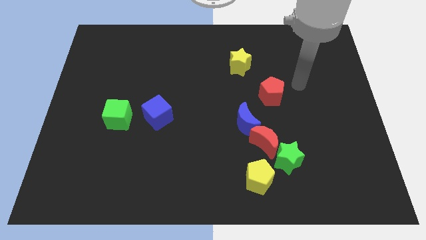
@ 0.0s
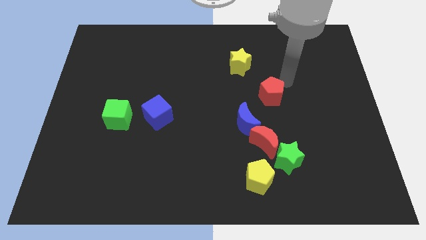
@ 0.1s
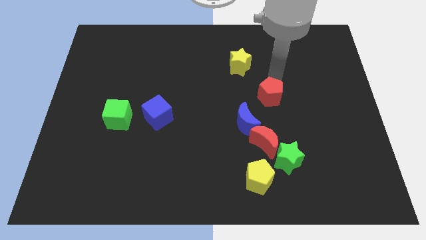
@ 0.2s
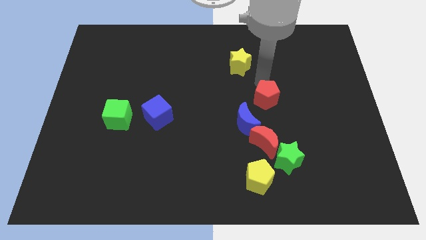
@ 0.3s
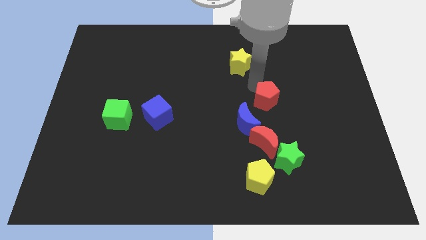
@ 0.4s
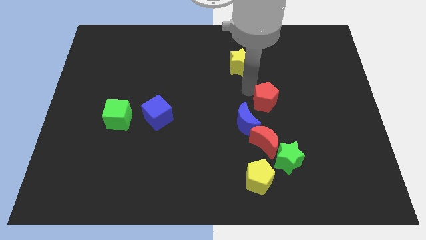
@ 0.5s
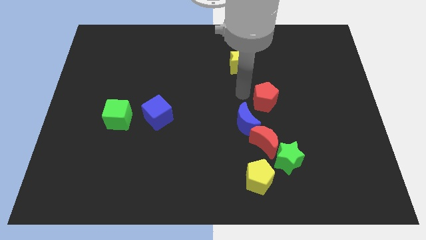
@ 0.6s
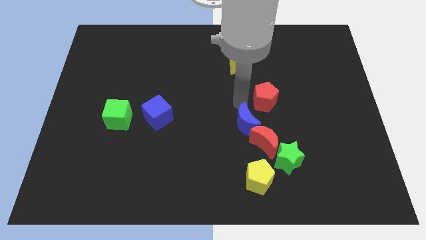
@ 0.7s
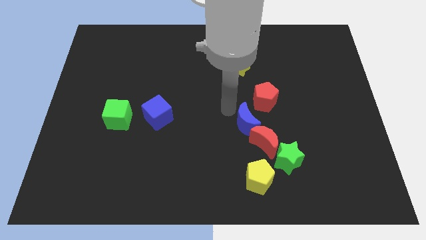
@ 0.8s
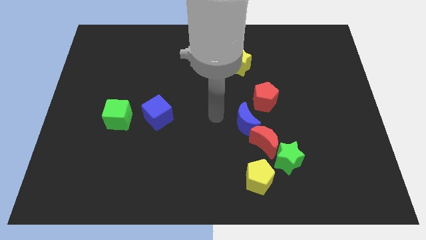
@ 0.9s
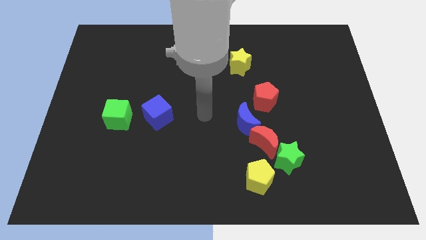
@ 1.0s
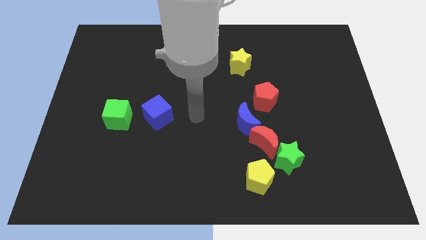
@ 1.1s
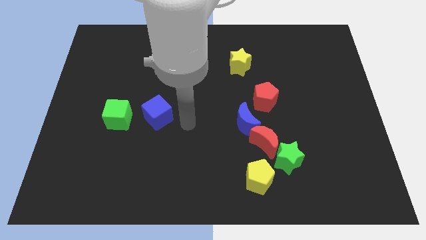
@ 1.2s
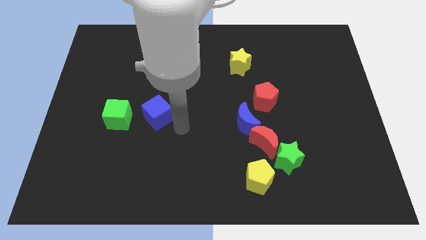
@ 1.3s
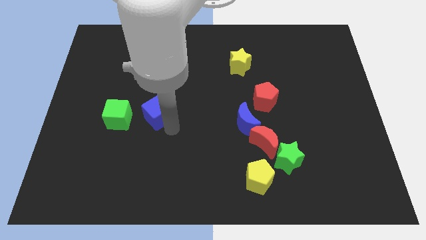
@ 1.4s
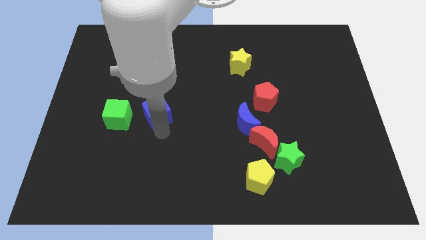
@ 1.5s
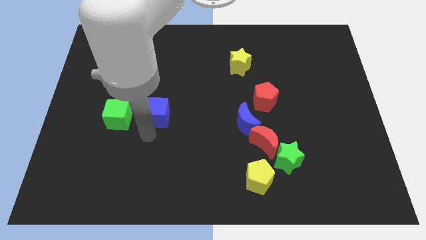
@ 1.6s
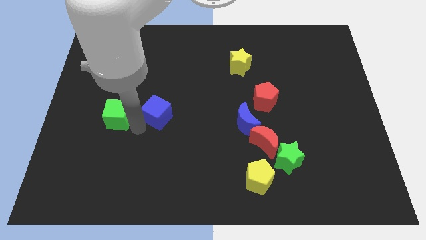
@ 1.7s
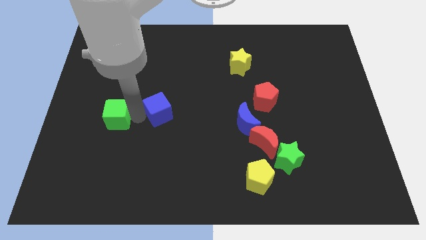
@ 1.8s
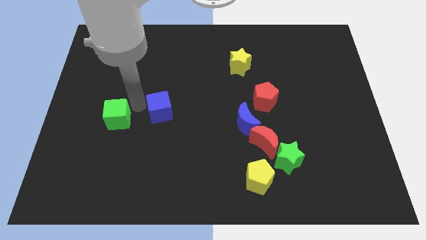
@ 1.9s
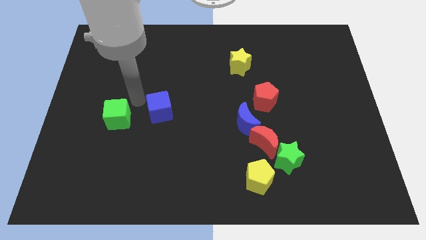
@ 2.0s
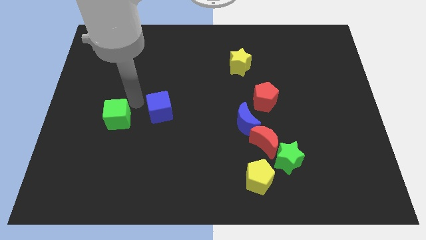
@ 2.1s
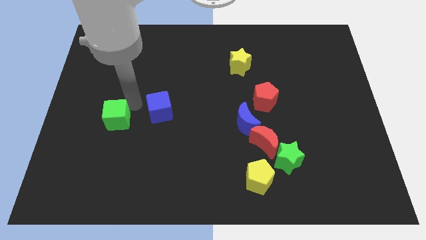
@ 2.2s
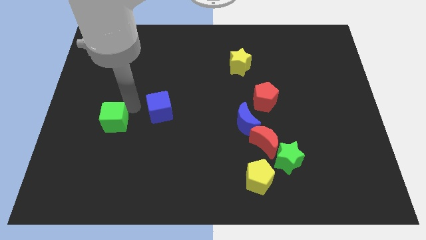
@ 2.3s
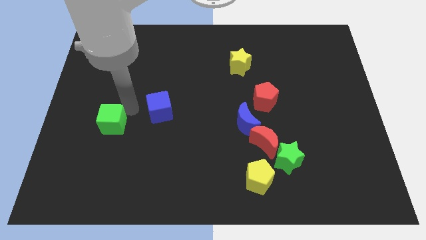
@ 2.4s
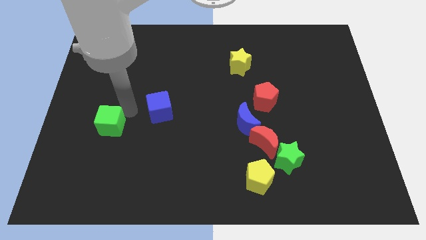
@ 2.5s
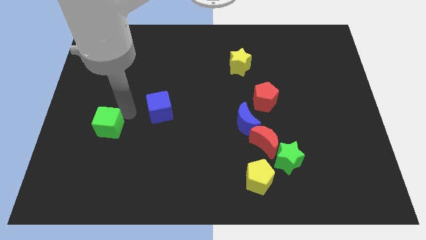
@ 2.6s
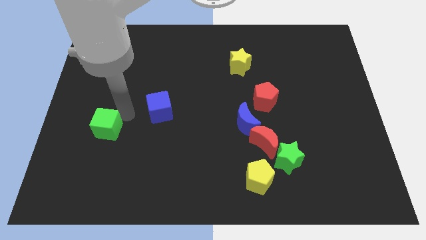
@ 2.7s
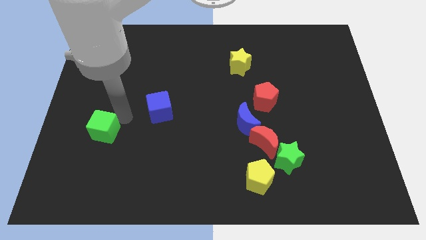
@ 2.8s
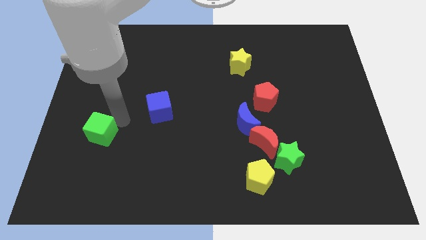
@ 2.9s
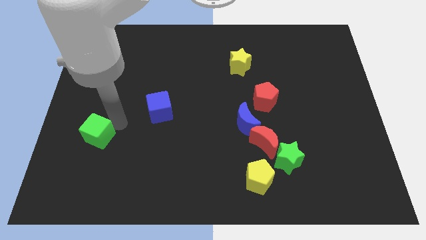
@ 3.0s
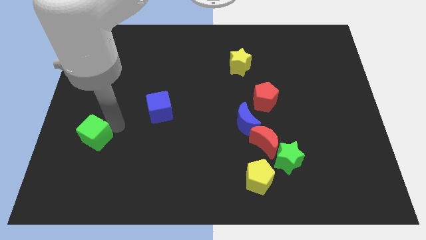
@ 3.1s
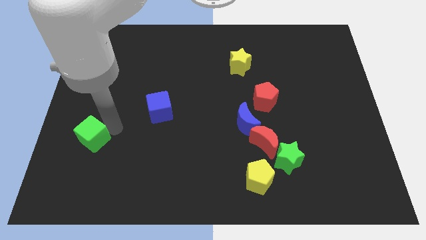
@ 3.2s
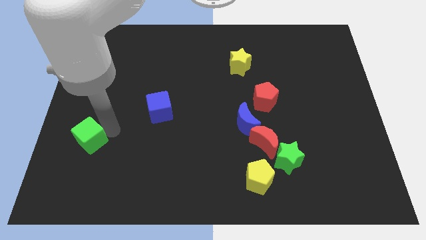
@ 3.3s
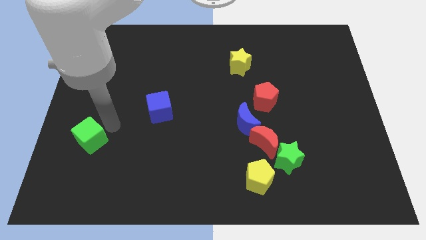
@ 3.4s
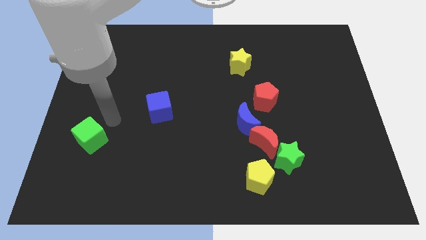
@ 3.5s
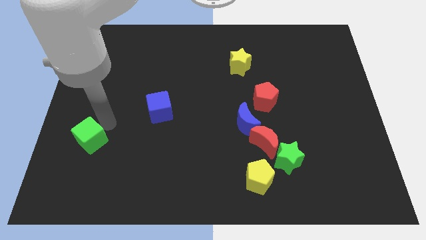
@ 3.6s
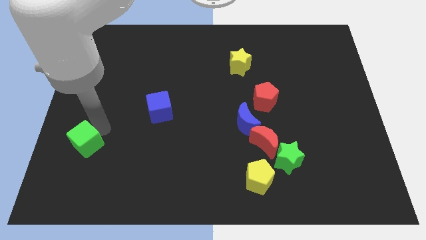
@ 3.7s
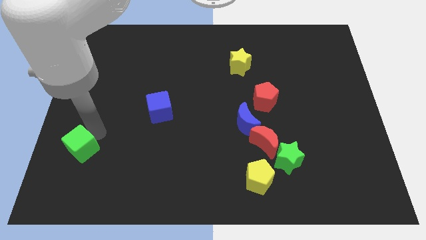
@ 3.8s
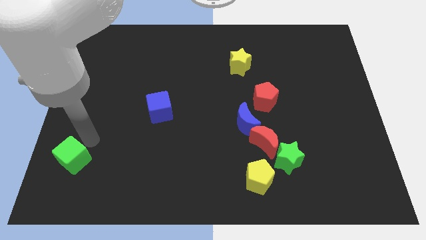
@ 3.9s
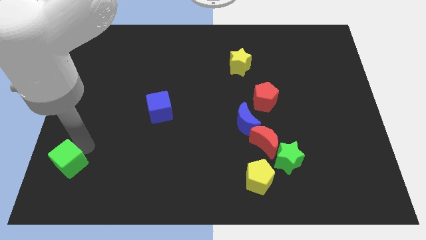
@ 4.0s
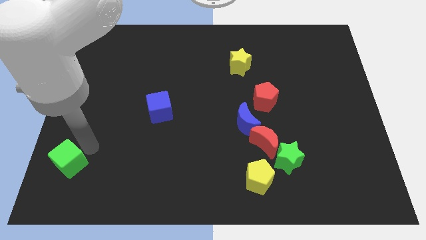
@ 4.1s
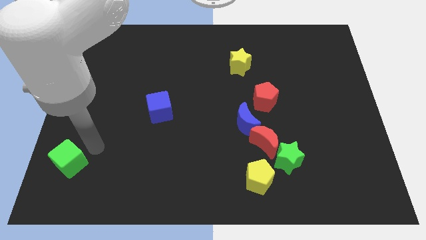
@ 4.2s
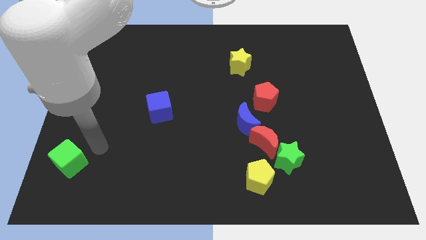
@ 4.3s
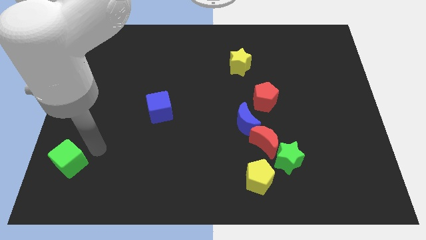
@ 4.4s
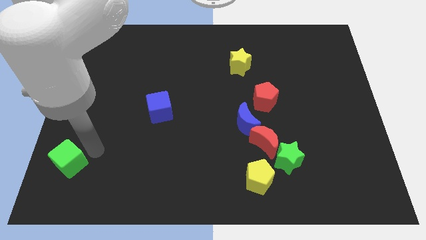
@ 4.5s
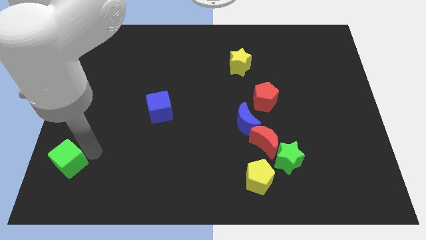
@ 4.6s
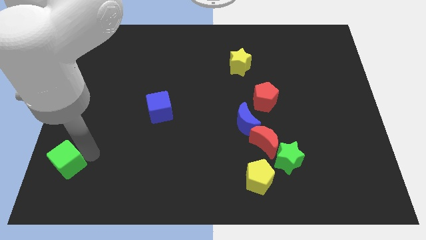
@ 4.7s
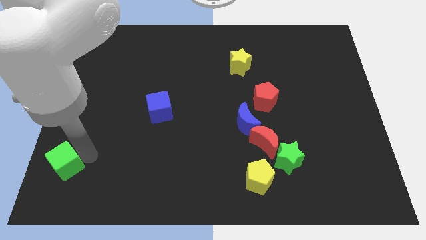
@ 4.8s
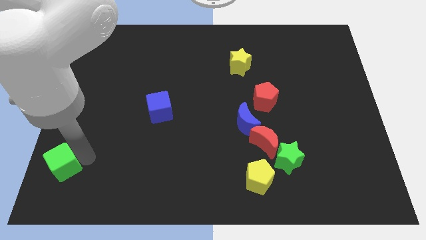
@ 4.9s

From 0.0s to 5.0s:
push the green cube to the lower left corner

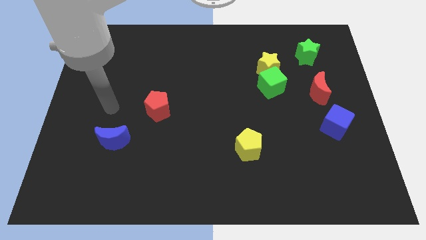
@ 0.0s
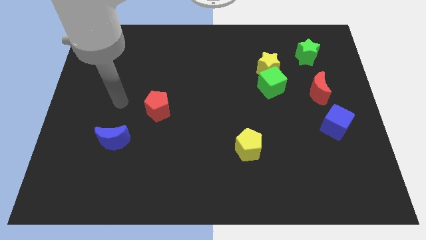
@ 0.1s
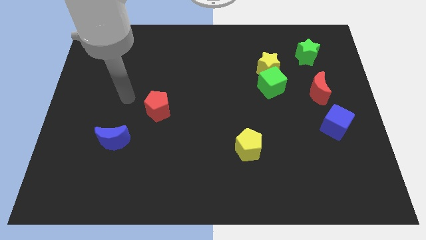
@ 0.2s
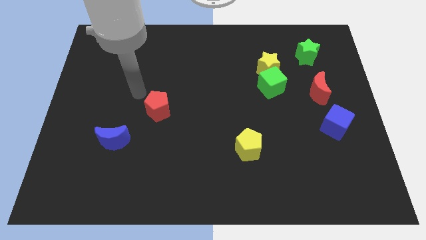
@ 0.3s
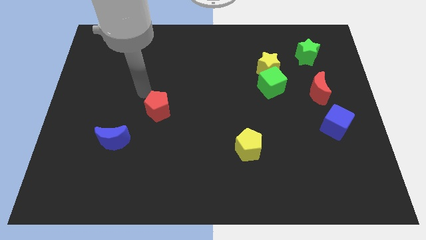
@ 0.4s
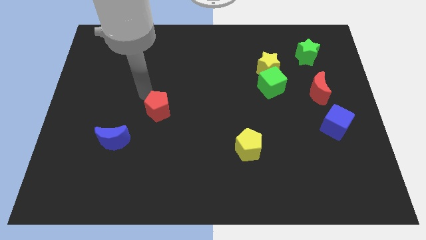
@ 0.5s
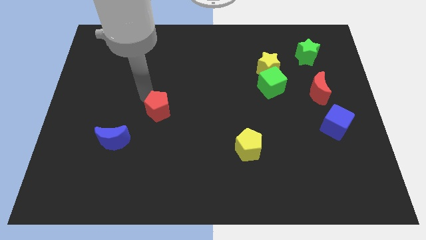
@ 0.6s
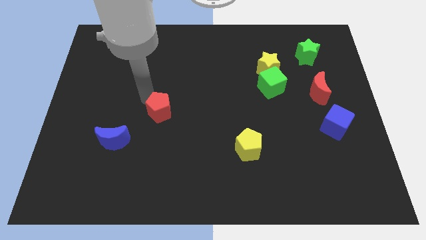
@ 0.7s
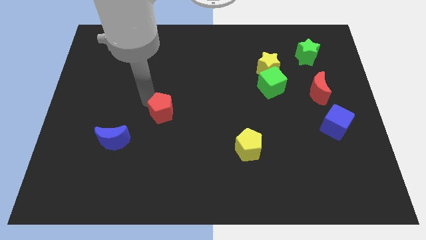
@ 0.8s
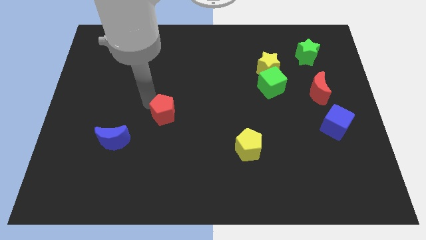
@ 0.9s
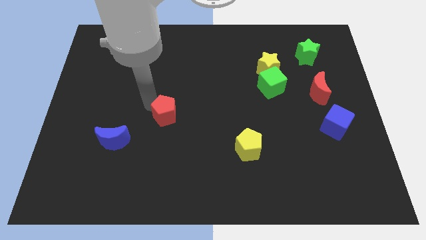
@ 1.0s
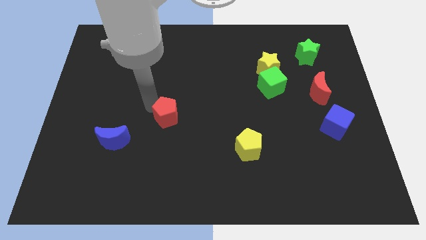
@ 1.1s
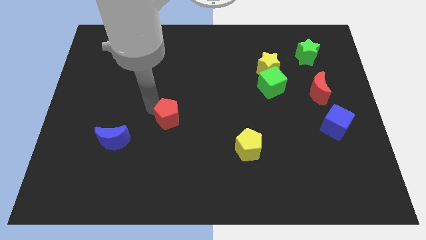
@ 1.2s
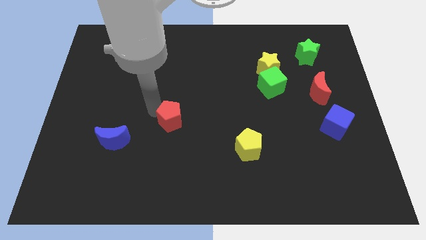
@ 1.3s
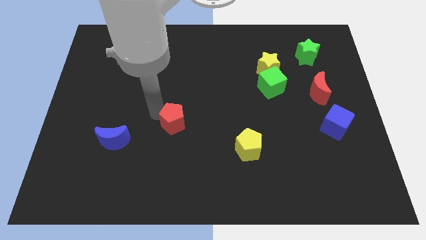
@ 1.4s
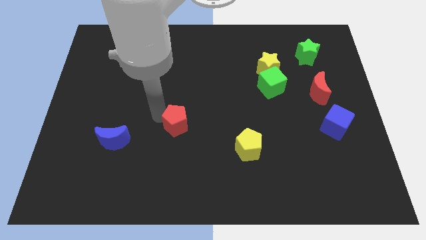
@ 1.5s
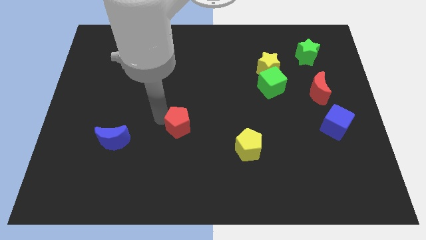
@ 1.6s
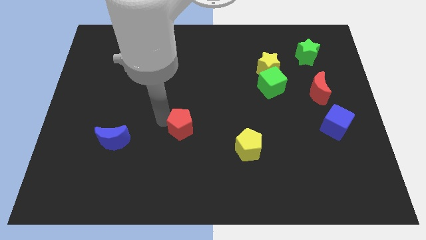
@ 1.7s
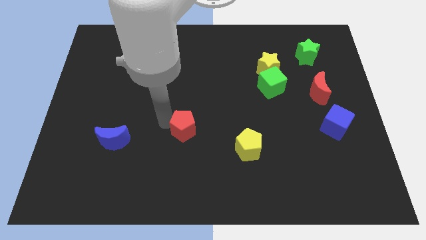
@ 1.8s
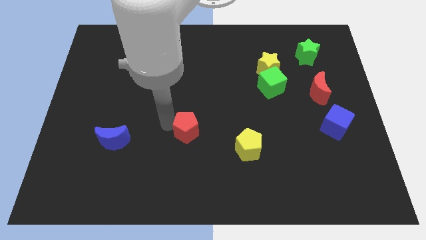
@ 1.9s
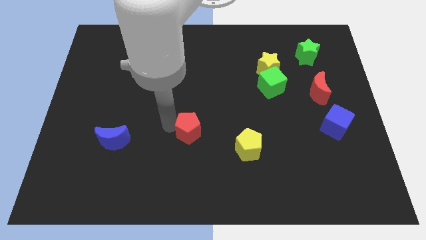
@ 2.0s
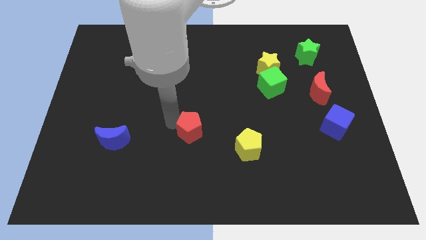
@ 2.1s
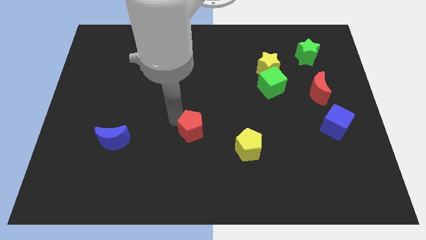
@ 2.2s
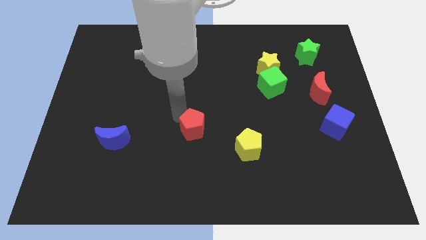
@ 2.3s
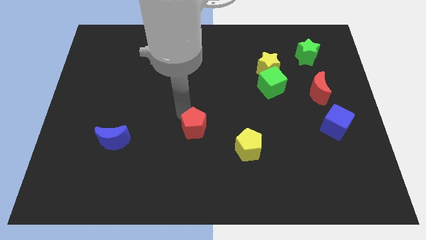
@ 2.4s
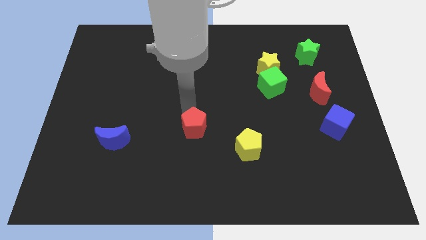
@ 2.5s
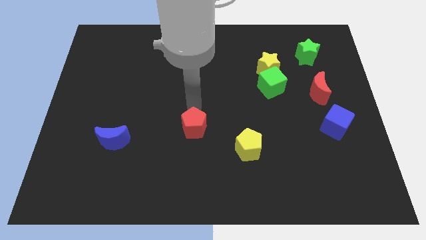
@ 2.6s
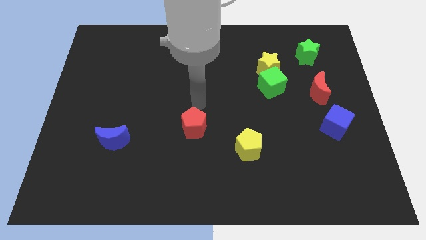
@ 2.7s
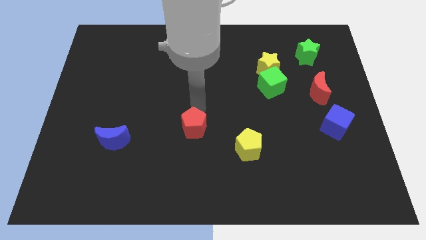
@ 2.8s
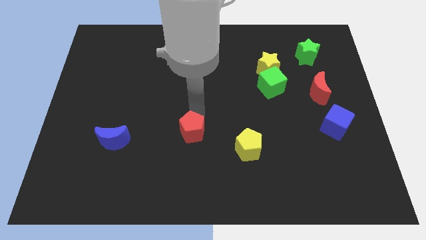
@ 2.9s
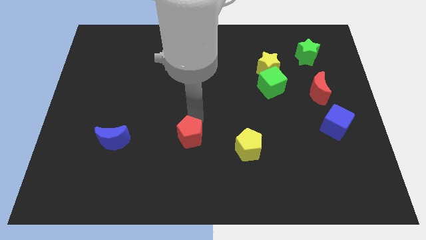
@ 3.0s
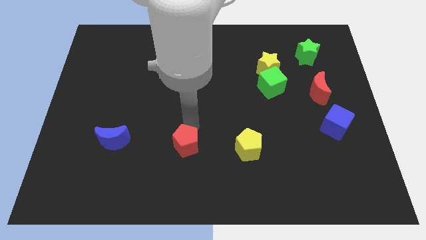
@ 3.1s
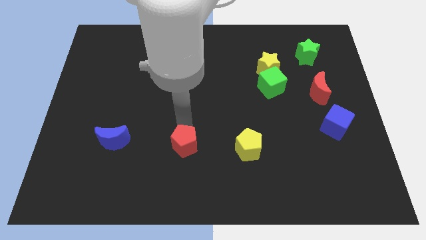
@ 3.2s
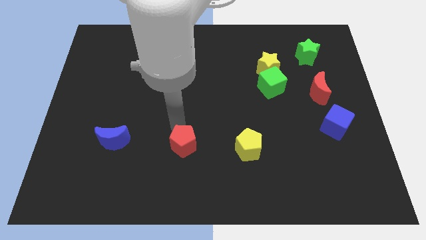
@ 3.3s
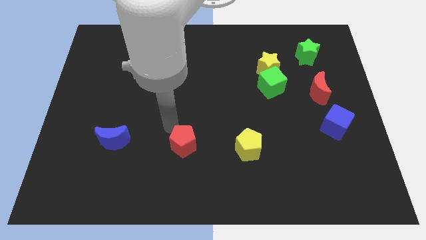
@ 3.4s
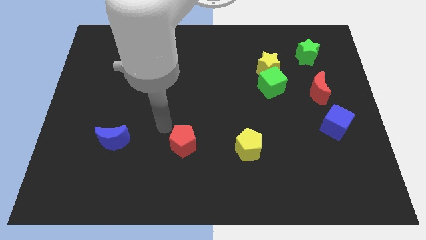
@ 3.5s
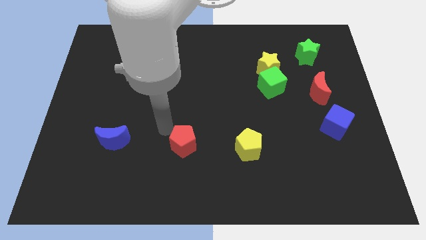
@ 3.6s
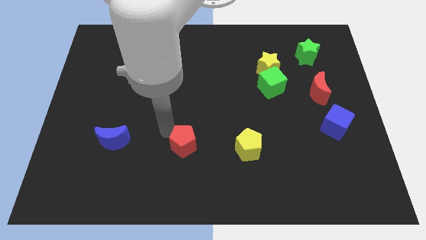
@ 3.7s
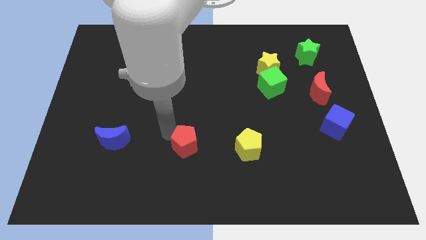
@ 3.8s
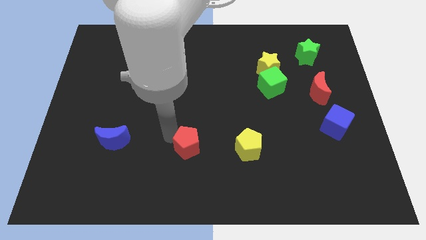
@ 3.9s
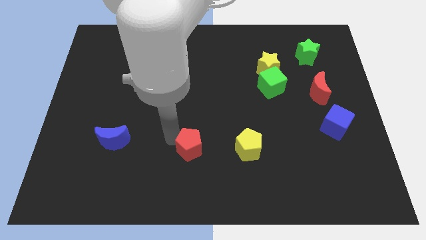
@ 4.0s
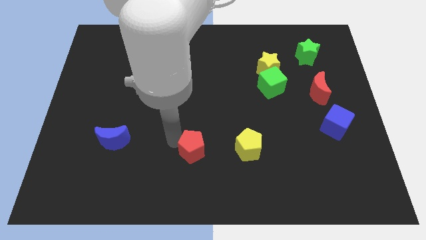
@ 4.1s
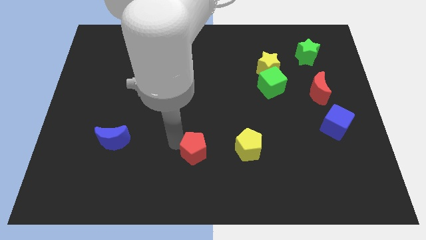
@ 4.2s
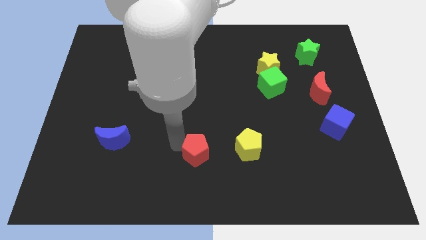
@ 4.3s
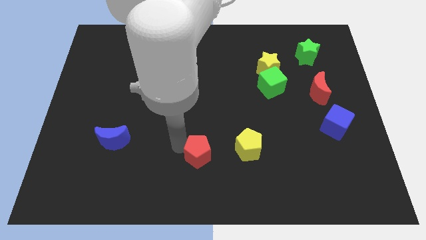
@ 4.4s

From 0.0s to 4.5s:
put the red pentagon to the bottom side
